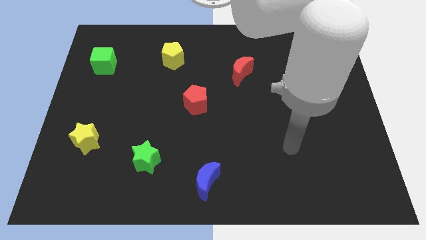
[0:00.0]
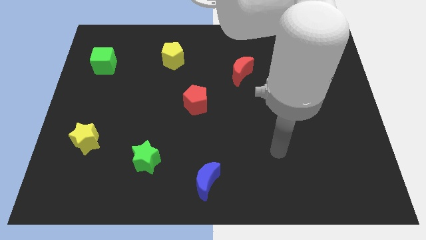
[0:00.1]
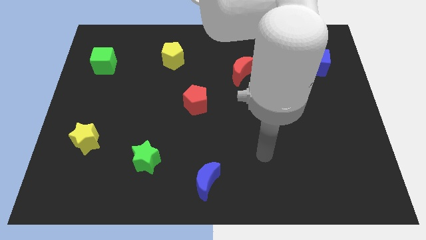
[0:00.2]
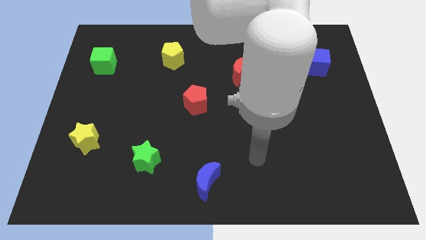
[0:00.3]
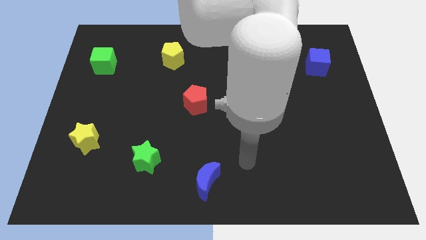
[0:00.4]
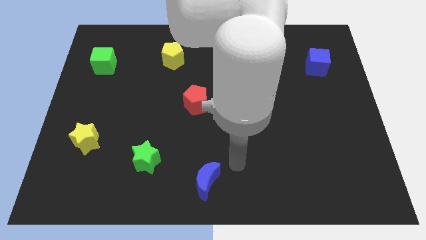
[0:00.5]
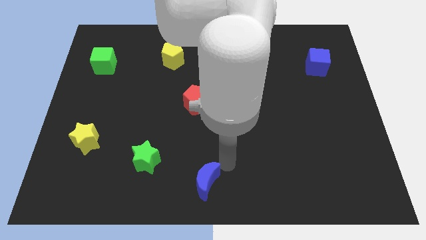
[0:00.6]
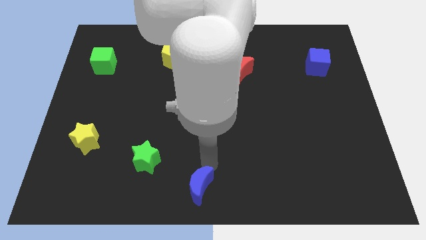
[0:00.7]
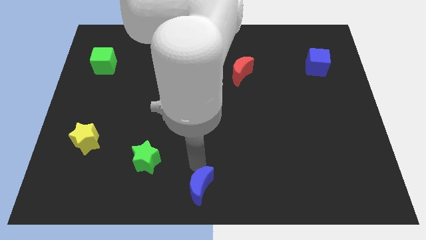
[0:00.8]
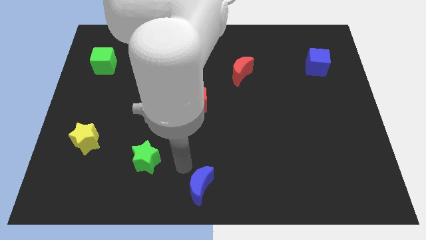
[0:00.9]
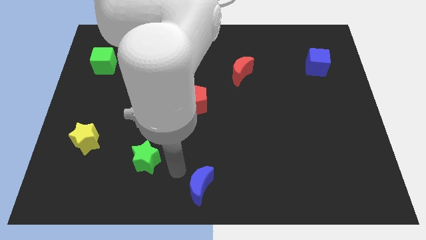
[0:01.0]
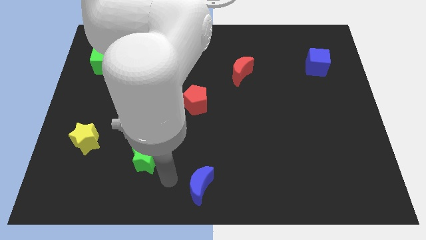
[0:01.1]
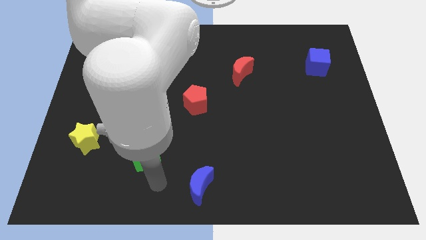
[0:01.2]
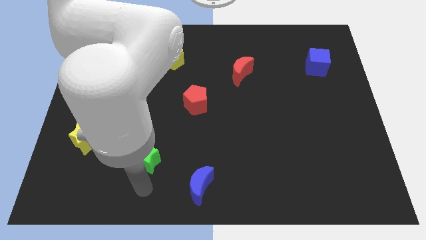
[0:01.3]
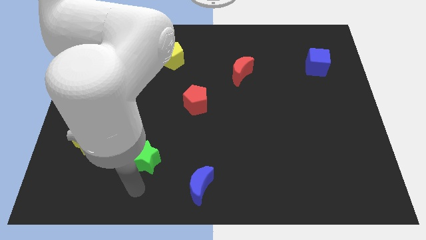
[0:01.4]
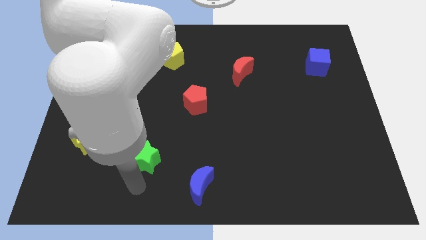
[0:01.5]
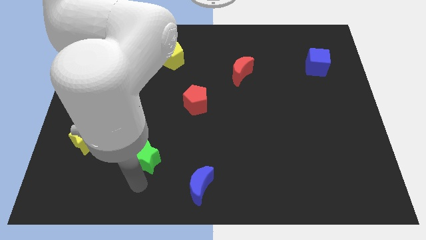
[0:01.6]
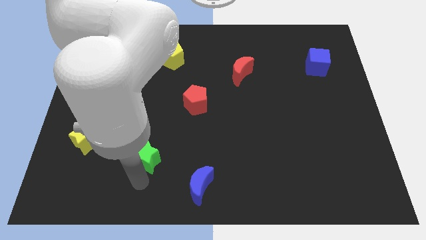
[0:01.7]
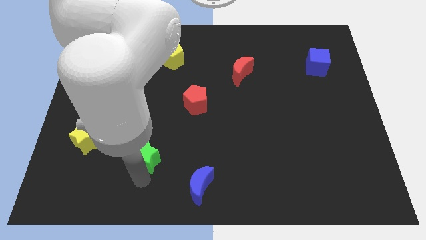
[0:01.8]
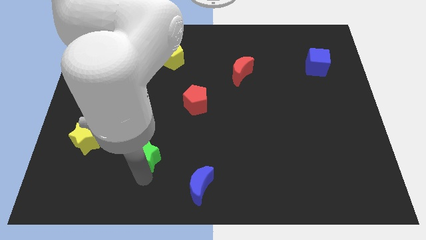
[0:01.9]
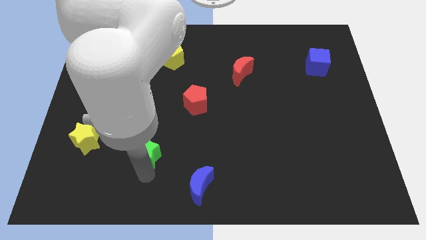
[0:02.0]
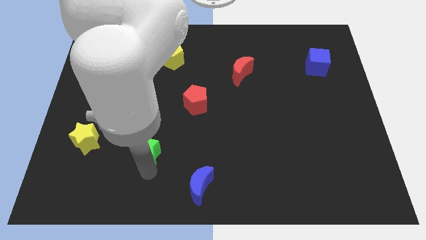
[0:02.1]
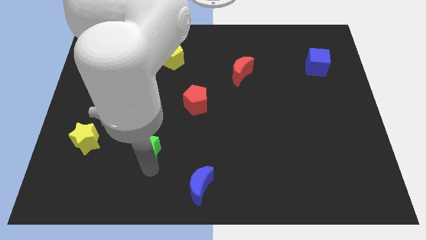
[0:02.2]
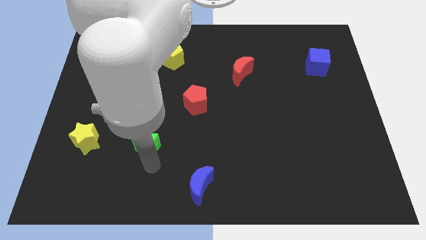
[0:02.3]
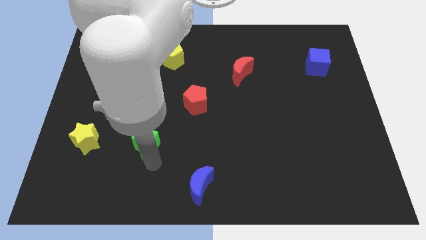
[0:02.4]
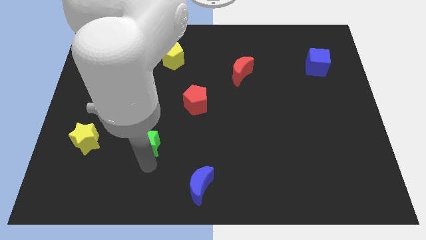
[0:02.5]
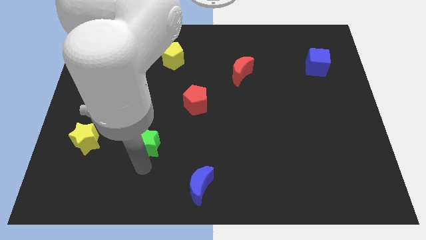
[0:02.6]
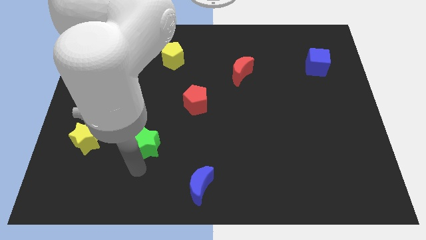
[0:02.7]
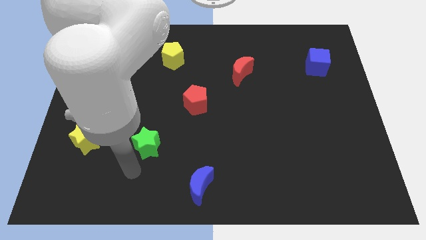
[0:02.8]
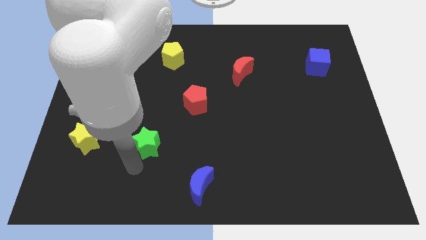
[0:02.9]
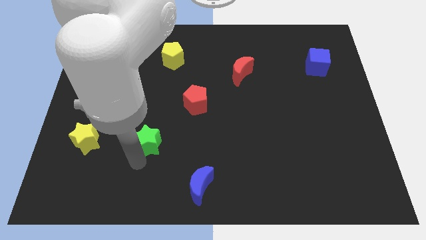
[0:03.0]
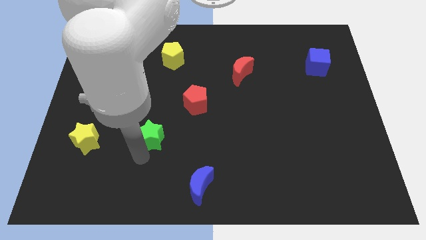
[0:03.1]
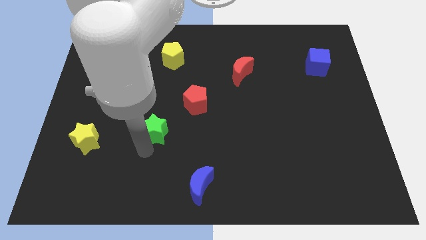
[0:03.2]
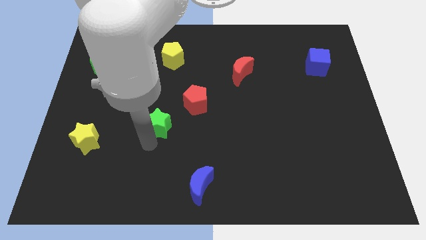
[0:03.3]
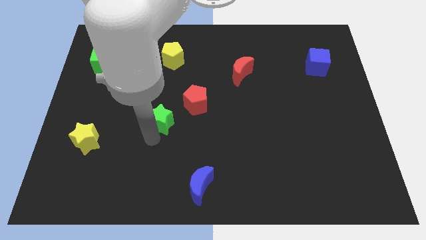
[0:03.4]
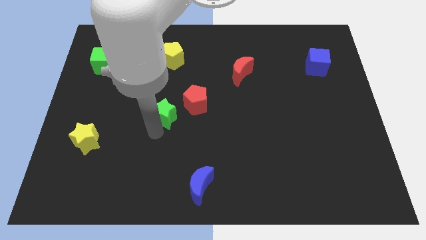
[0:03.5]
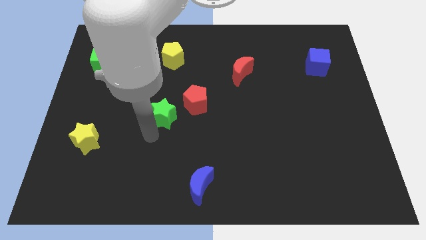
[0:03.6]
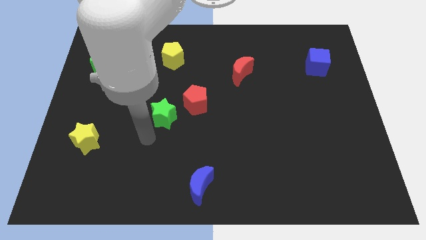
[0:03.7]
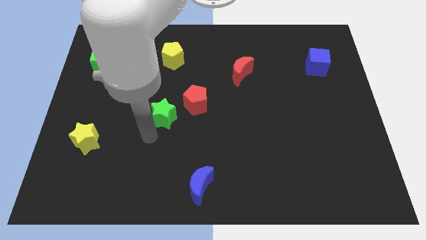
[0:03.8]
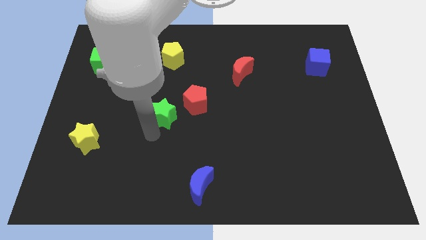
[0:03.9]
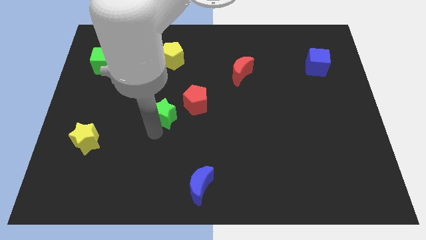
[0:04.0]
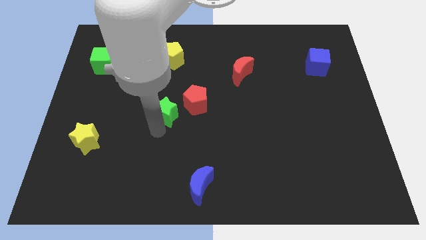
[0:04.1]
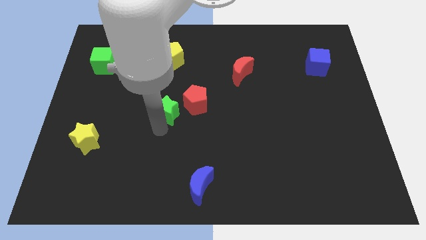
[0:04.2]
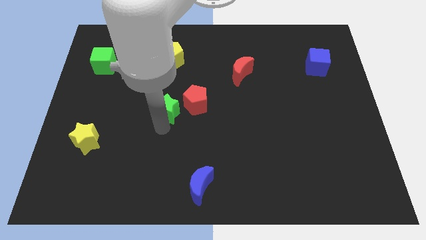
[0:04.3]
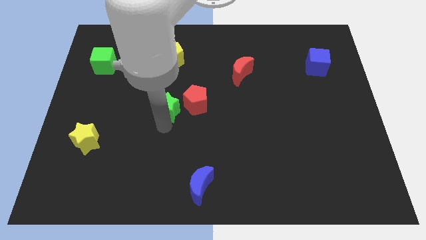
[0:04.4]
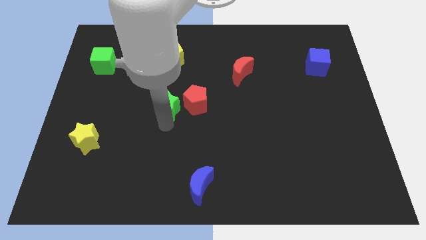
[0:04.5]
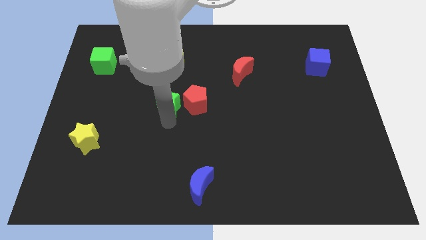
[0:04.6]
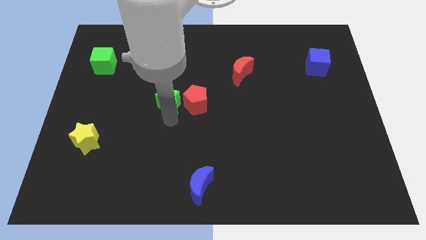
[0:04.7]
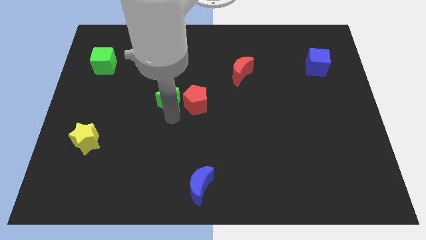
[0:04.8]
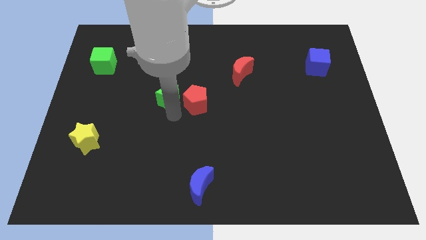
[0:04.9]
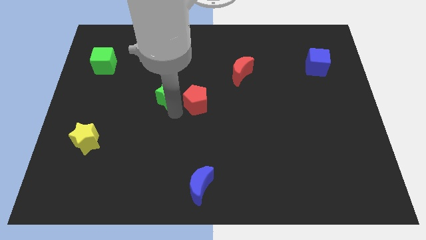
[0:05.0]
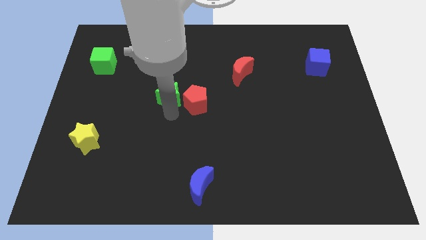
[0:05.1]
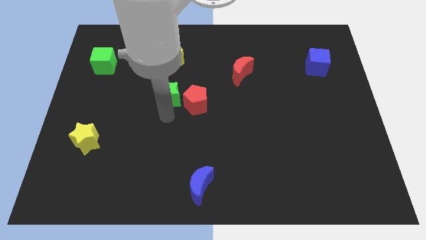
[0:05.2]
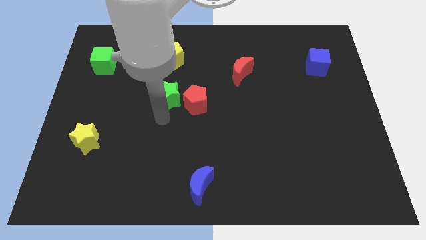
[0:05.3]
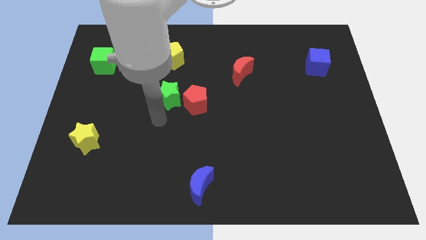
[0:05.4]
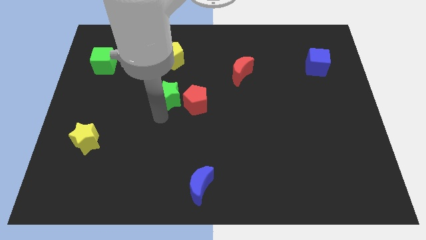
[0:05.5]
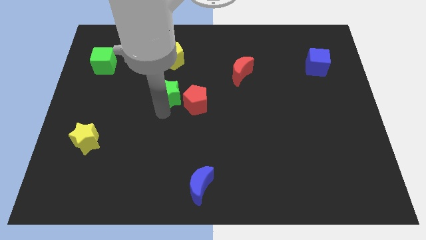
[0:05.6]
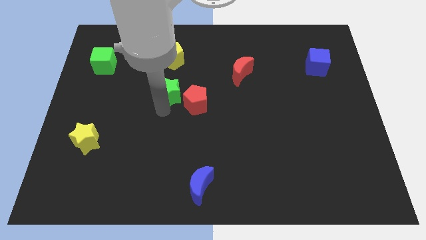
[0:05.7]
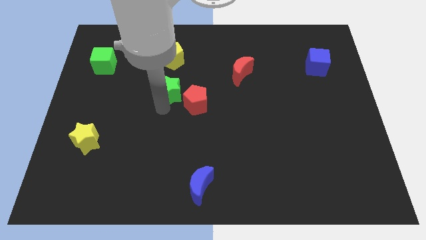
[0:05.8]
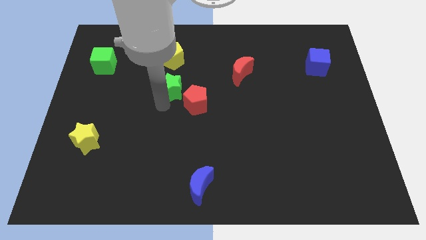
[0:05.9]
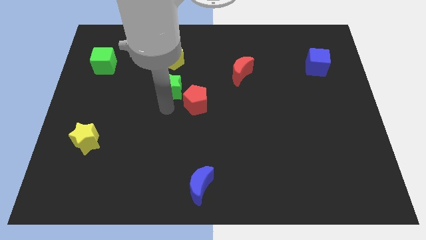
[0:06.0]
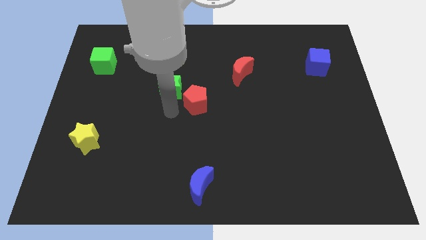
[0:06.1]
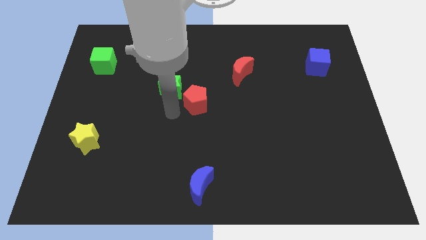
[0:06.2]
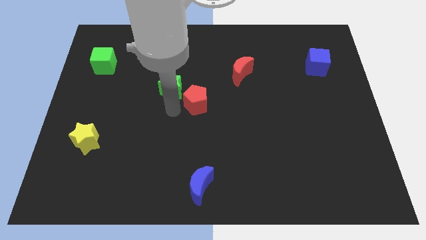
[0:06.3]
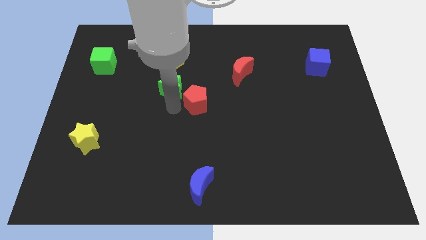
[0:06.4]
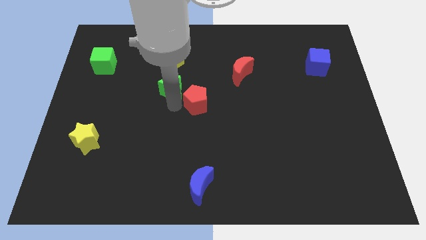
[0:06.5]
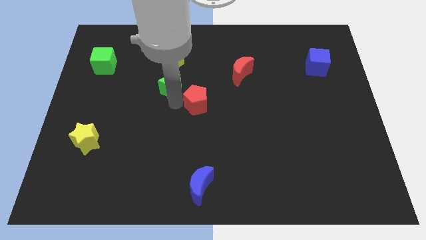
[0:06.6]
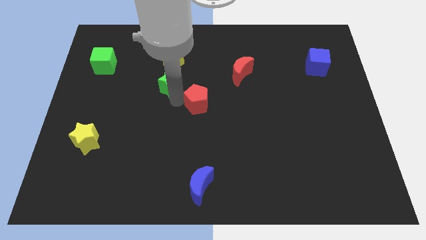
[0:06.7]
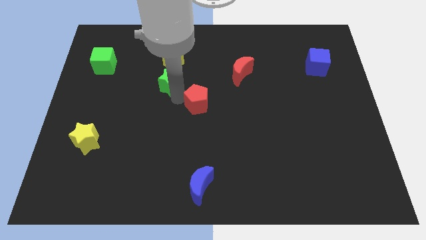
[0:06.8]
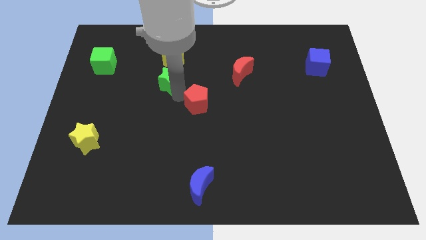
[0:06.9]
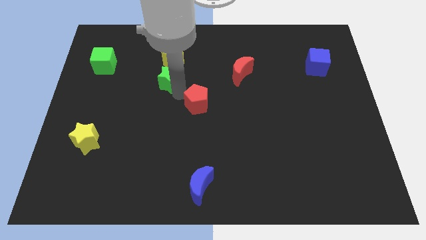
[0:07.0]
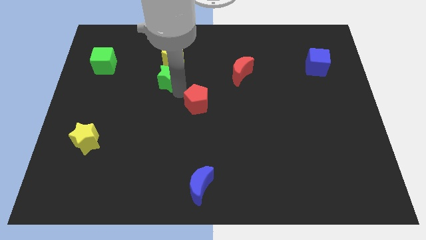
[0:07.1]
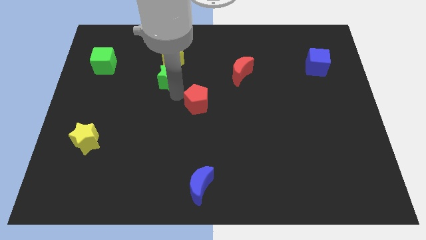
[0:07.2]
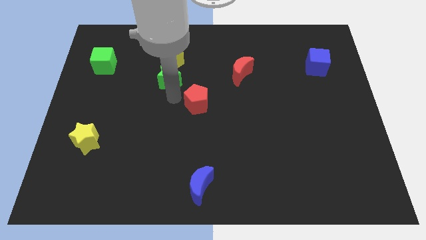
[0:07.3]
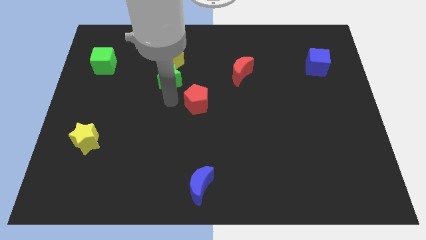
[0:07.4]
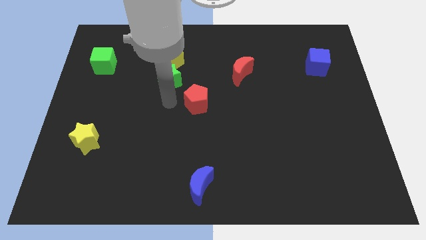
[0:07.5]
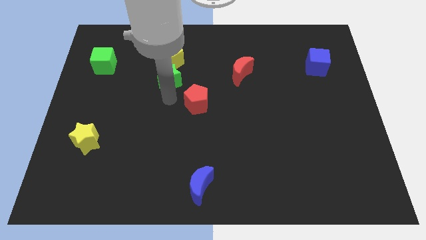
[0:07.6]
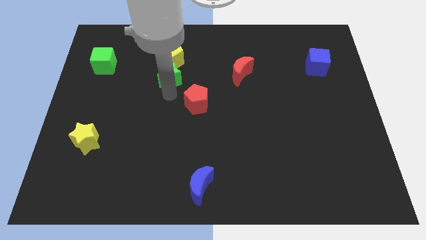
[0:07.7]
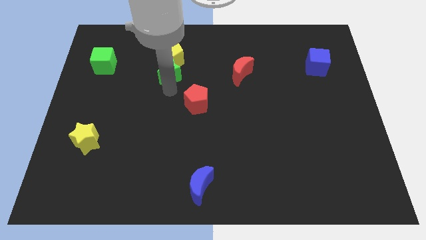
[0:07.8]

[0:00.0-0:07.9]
push the green star next to the yellow pentagon
